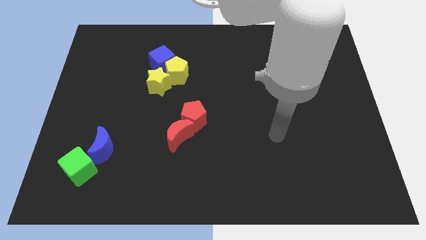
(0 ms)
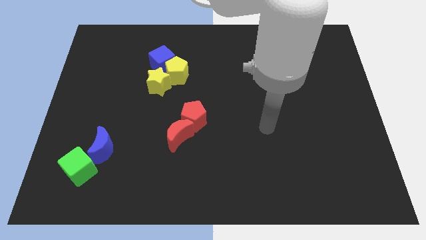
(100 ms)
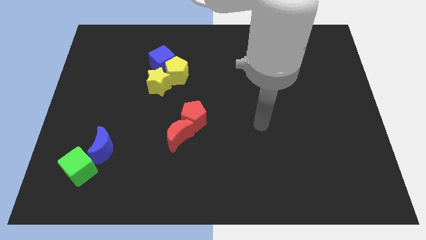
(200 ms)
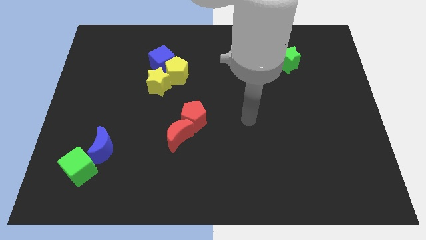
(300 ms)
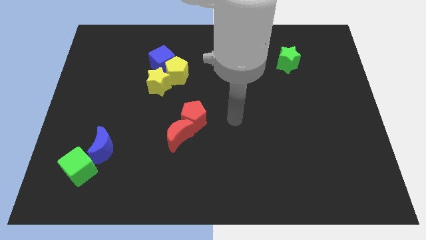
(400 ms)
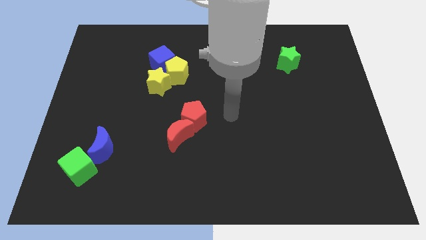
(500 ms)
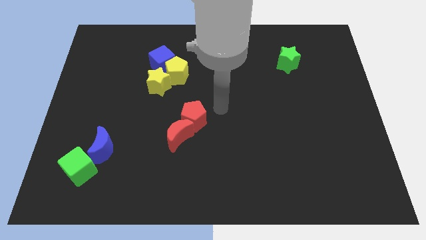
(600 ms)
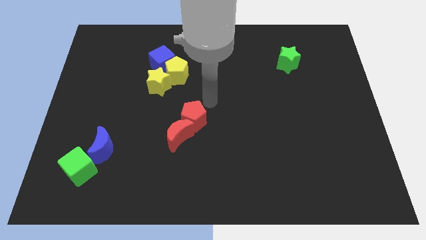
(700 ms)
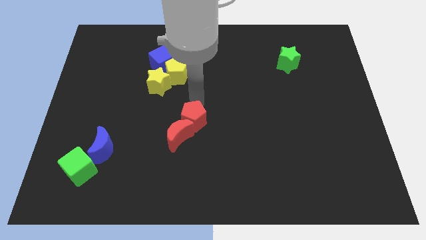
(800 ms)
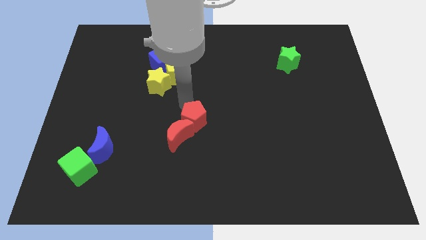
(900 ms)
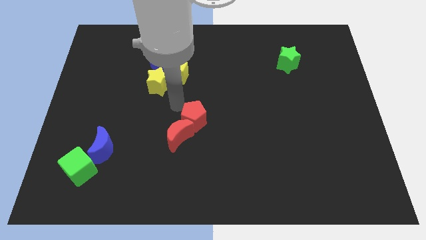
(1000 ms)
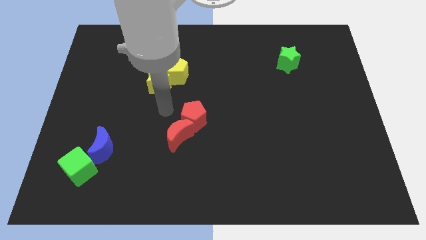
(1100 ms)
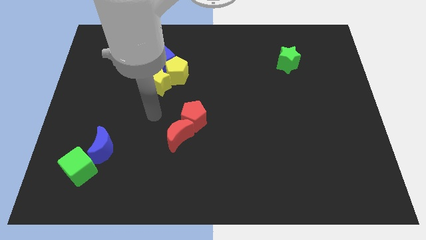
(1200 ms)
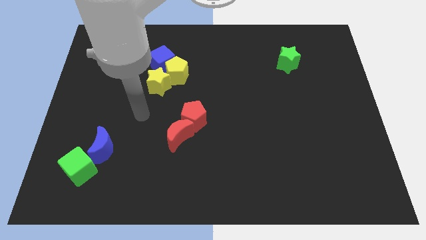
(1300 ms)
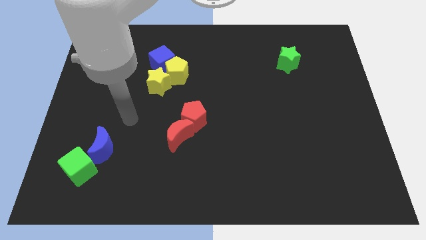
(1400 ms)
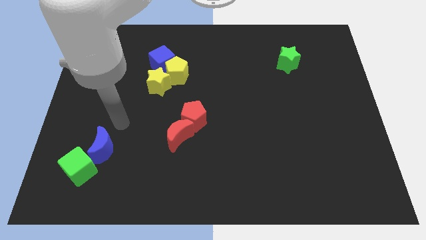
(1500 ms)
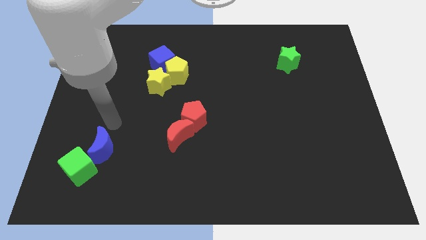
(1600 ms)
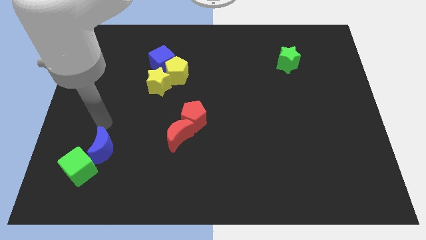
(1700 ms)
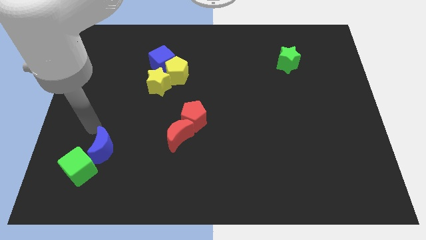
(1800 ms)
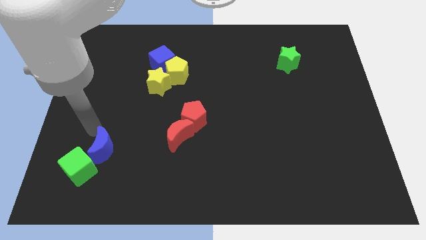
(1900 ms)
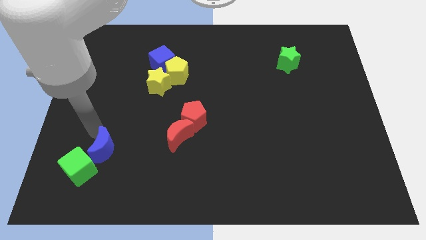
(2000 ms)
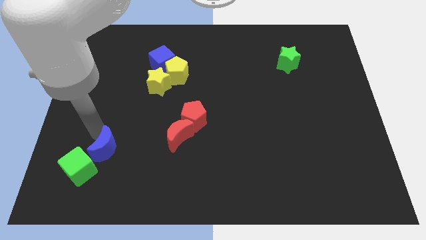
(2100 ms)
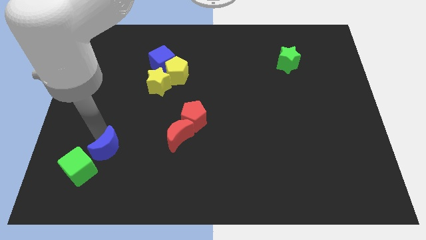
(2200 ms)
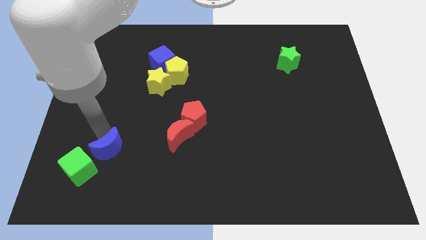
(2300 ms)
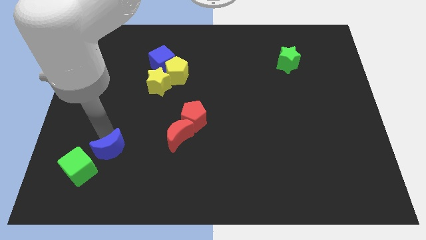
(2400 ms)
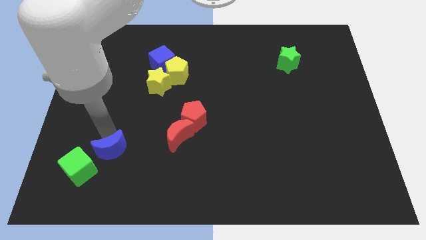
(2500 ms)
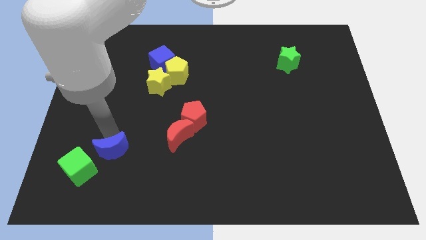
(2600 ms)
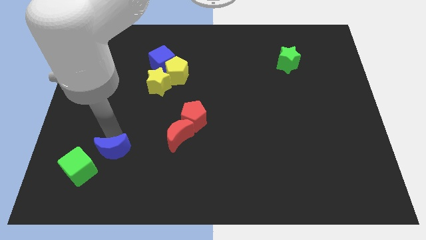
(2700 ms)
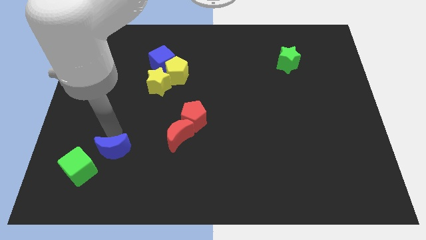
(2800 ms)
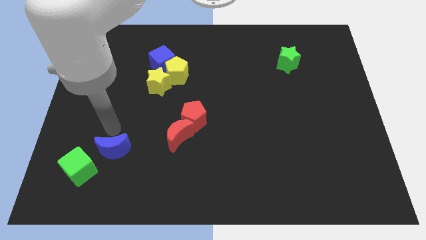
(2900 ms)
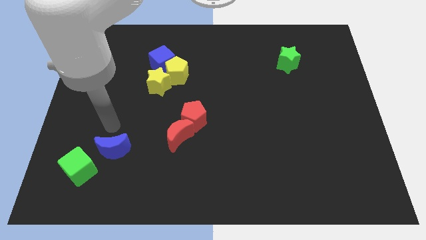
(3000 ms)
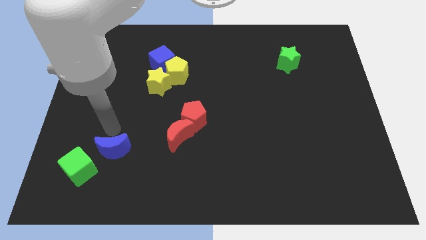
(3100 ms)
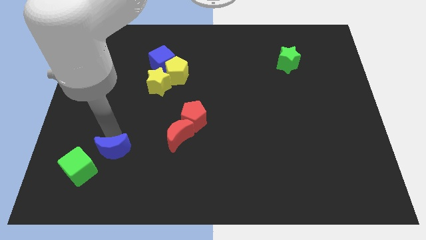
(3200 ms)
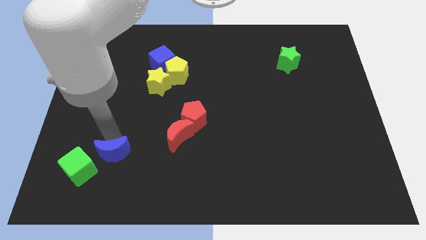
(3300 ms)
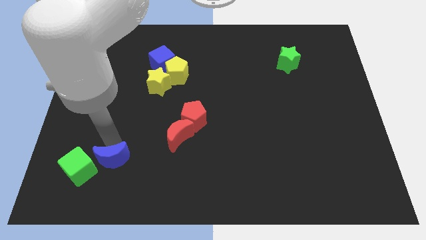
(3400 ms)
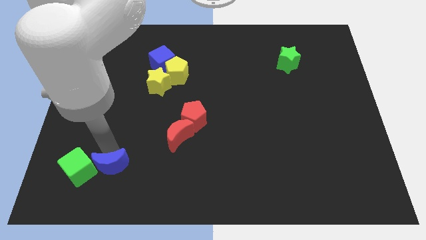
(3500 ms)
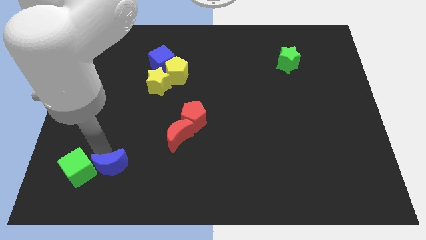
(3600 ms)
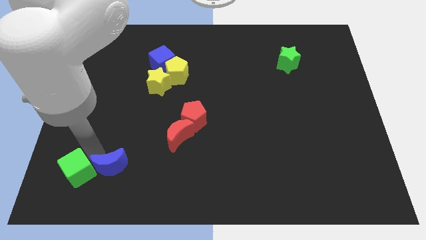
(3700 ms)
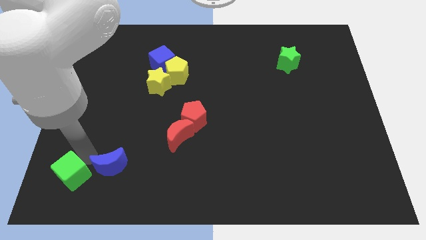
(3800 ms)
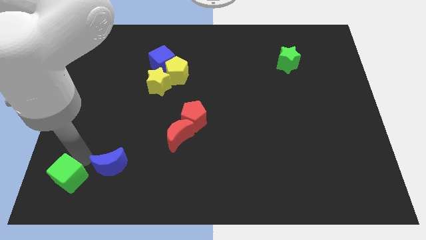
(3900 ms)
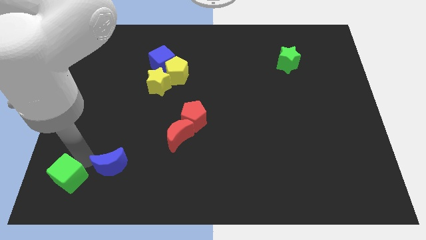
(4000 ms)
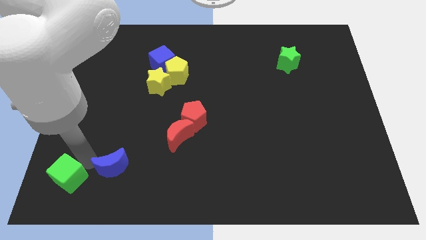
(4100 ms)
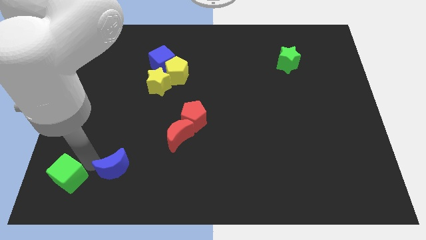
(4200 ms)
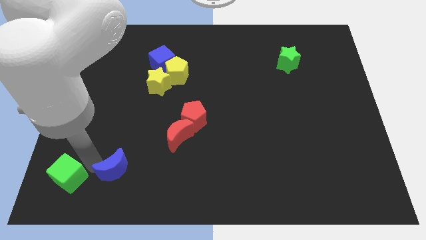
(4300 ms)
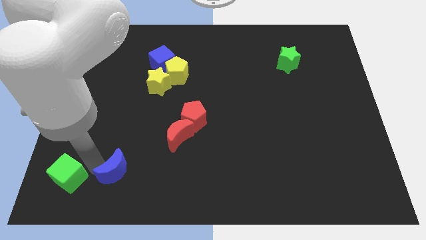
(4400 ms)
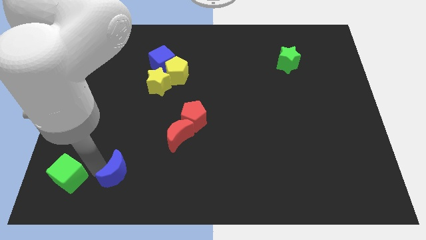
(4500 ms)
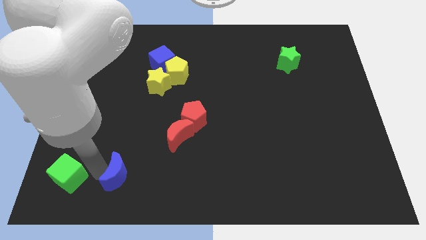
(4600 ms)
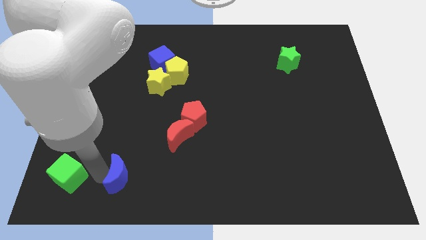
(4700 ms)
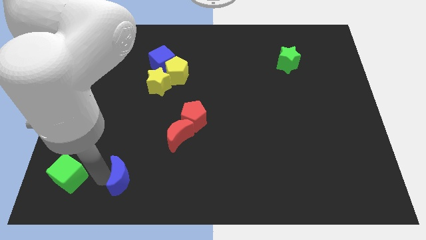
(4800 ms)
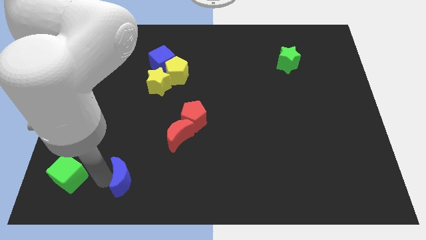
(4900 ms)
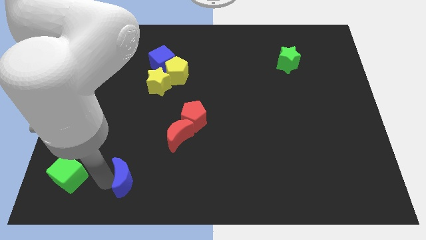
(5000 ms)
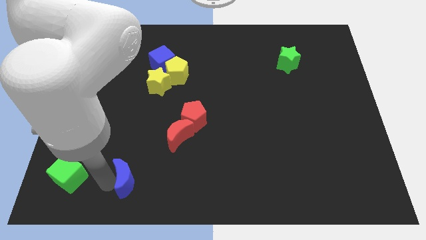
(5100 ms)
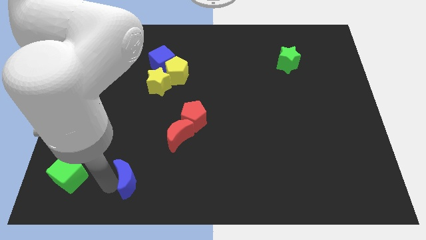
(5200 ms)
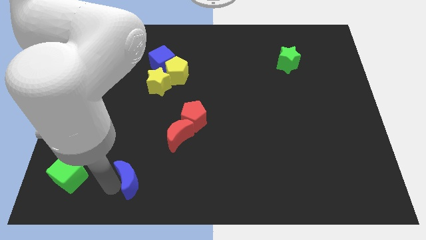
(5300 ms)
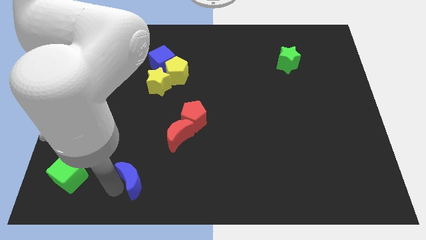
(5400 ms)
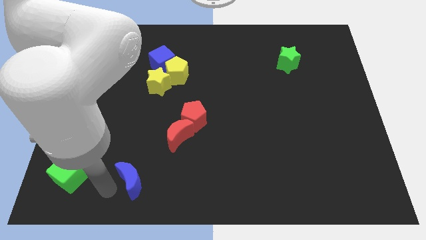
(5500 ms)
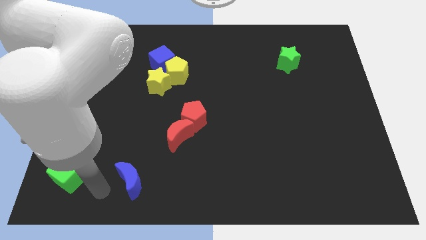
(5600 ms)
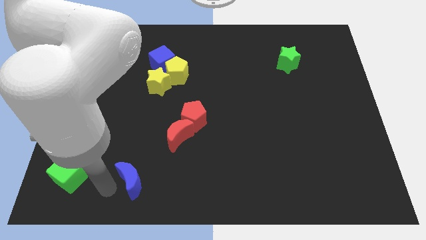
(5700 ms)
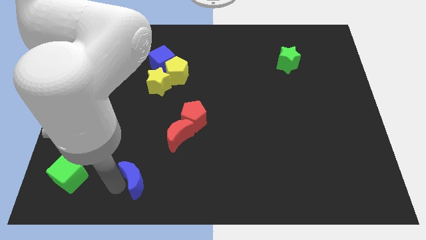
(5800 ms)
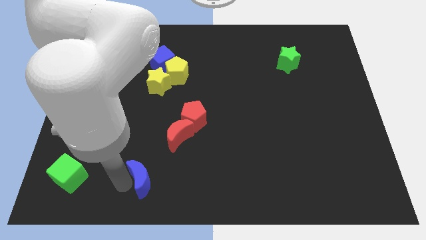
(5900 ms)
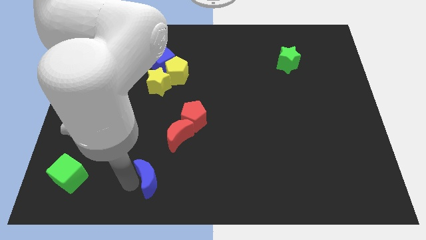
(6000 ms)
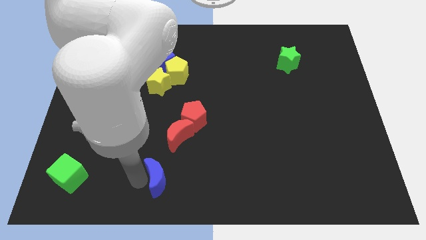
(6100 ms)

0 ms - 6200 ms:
push the blue moon to the bottom of the red moon
